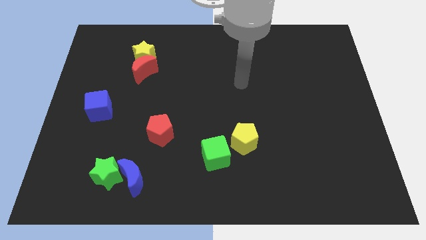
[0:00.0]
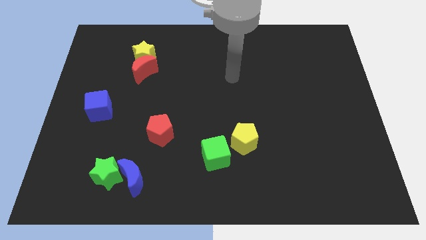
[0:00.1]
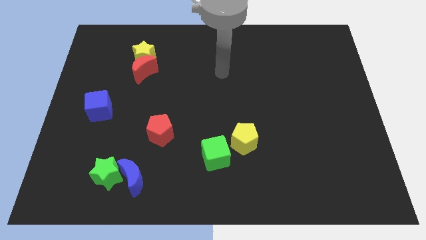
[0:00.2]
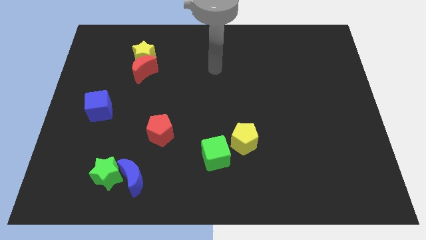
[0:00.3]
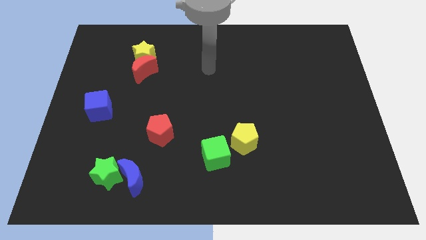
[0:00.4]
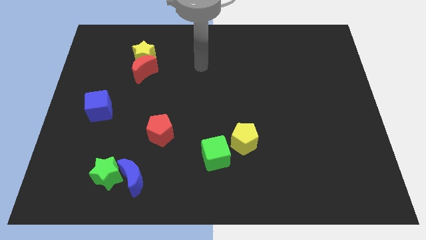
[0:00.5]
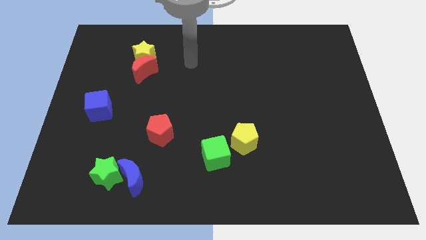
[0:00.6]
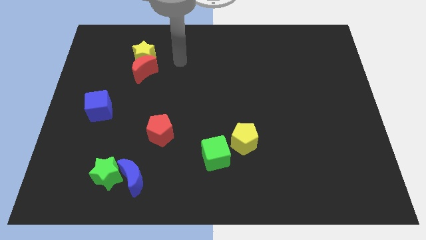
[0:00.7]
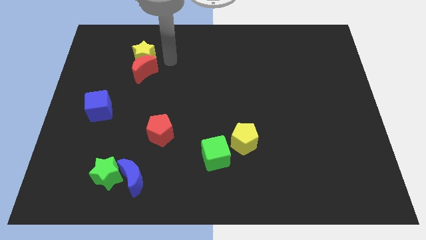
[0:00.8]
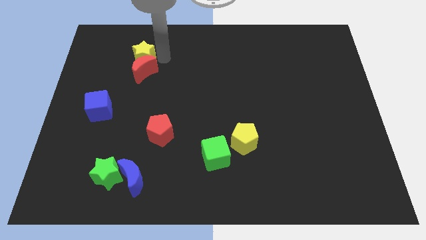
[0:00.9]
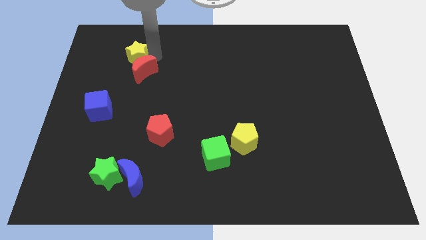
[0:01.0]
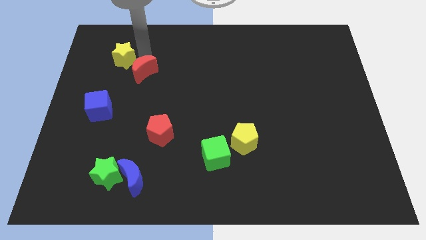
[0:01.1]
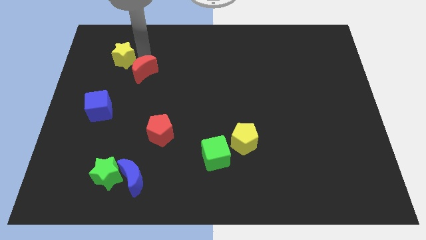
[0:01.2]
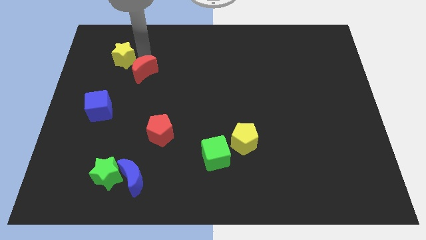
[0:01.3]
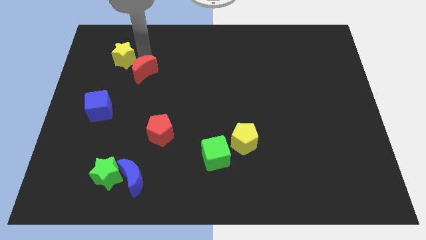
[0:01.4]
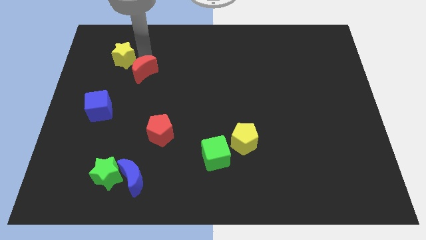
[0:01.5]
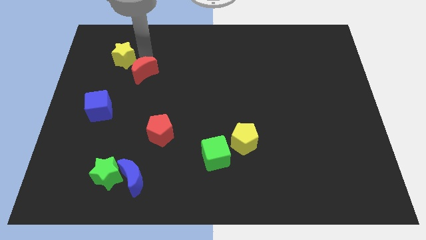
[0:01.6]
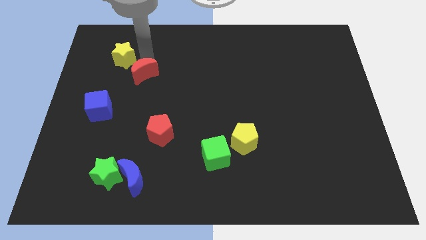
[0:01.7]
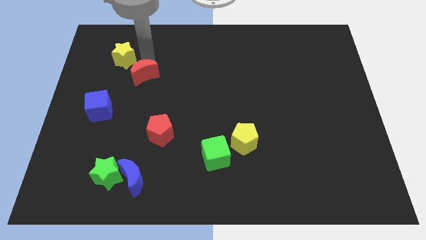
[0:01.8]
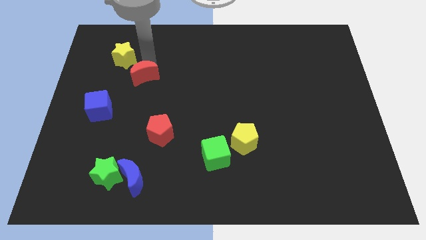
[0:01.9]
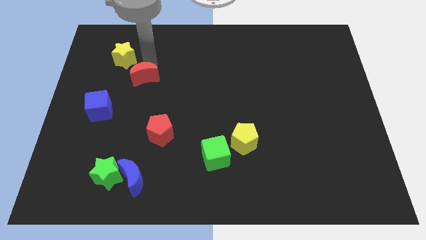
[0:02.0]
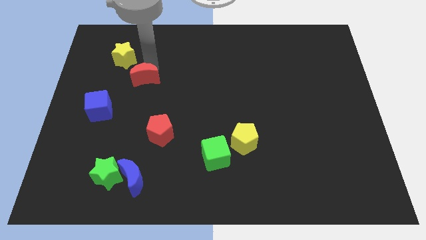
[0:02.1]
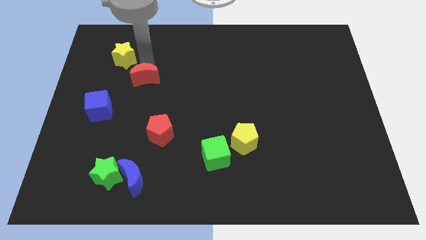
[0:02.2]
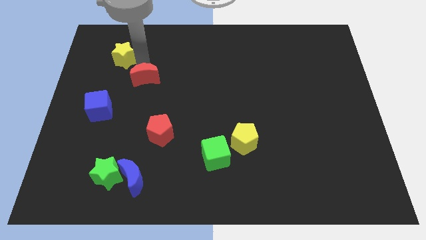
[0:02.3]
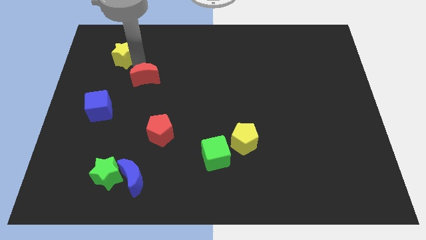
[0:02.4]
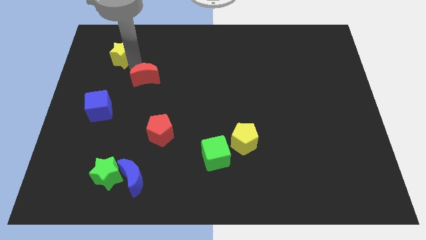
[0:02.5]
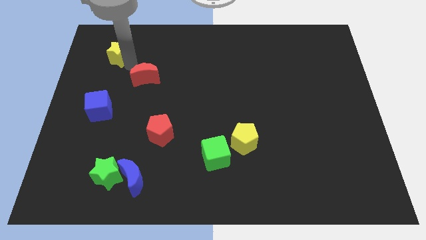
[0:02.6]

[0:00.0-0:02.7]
pull the red moon apart from the yellow star

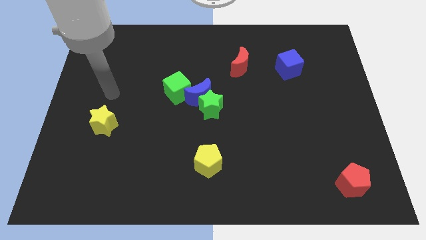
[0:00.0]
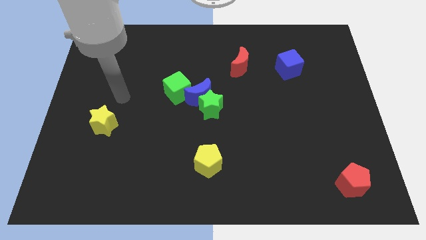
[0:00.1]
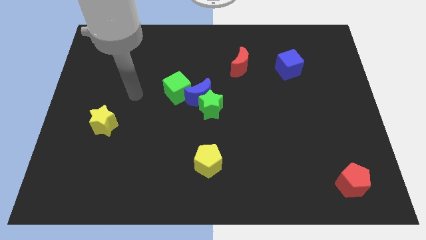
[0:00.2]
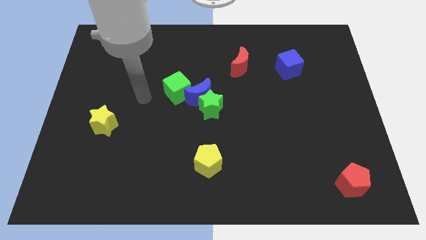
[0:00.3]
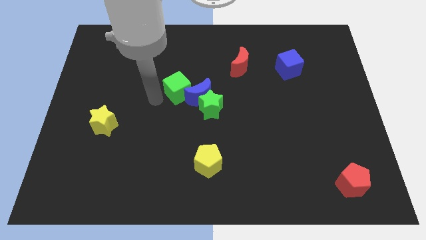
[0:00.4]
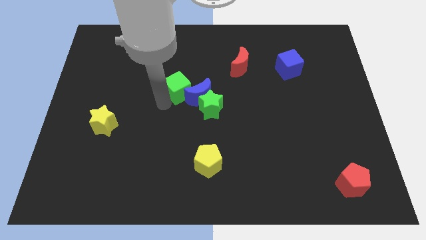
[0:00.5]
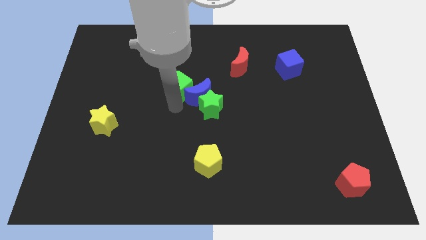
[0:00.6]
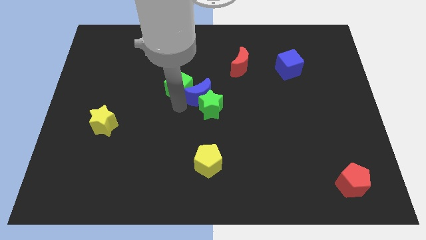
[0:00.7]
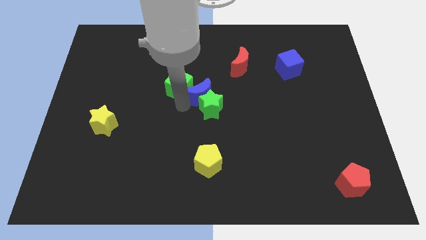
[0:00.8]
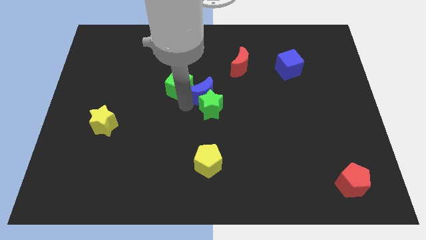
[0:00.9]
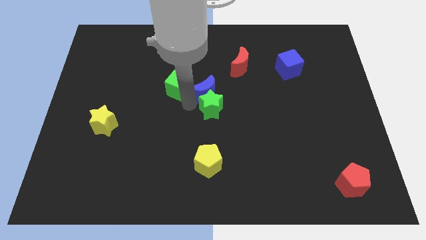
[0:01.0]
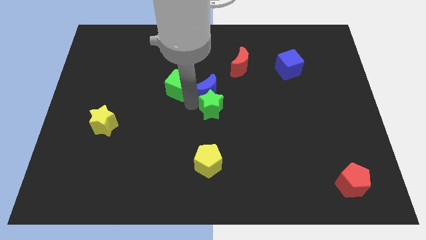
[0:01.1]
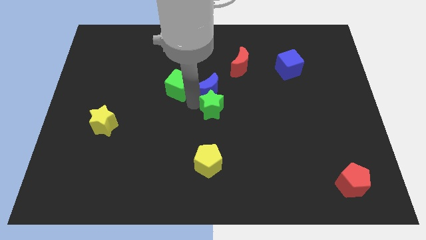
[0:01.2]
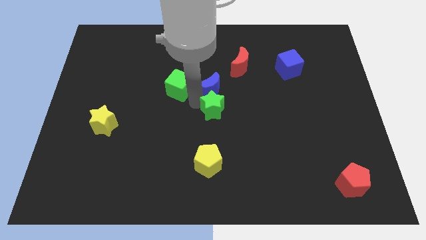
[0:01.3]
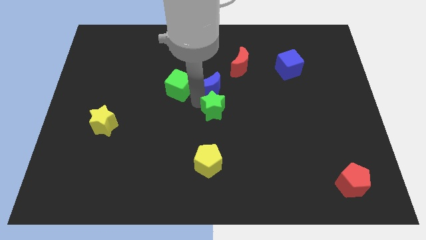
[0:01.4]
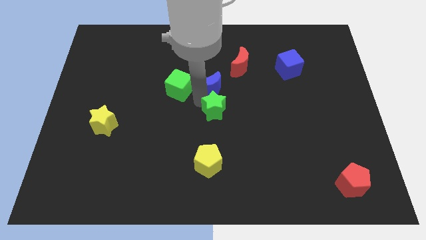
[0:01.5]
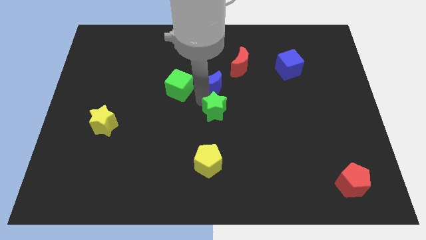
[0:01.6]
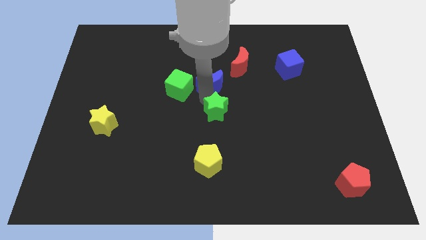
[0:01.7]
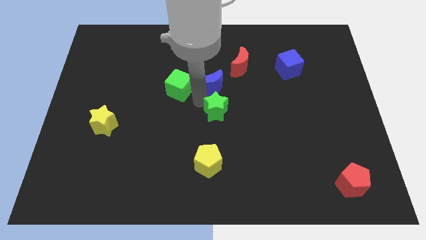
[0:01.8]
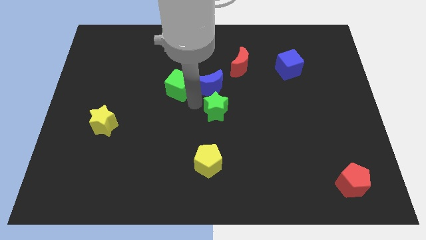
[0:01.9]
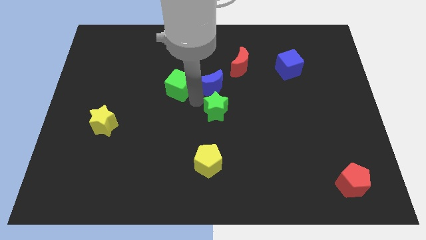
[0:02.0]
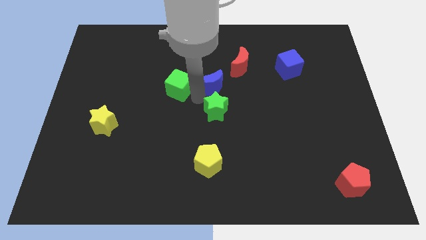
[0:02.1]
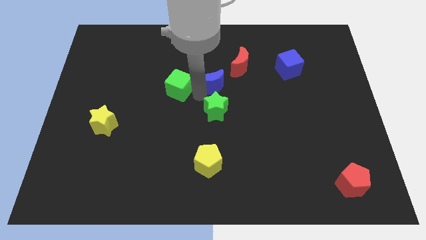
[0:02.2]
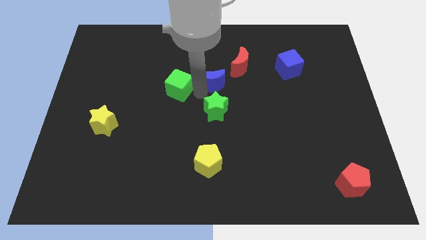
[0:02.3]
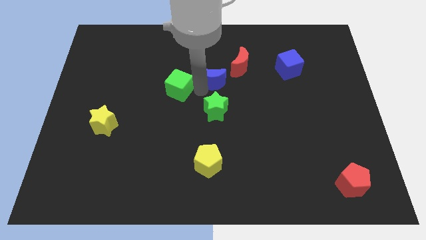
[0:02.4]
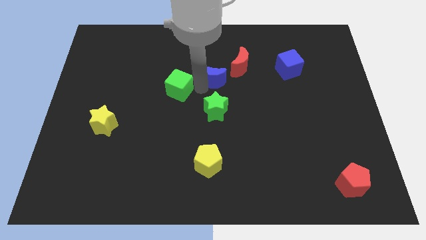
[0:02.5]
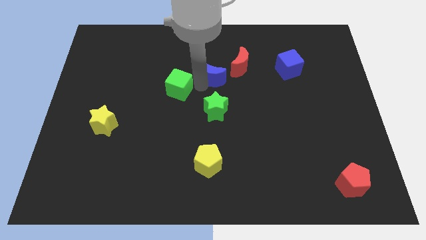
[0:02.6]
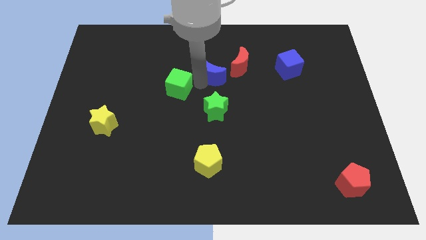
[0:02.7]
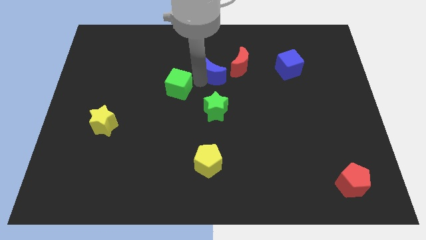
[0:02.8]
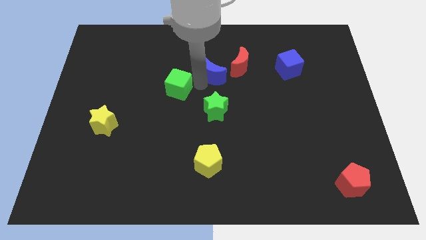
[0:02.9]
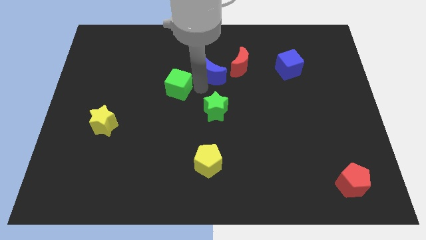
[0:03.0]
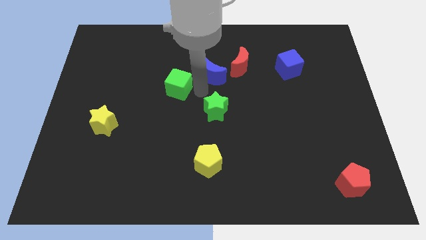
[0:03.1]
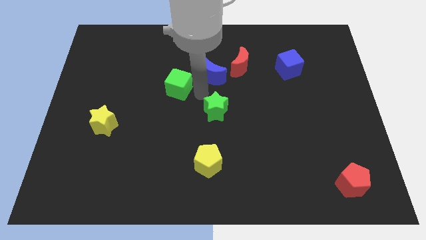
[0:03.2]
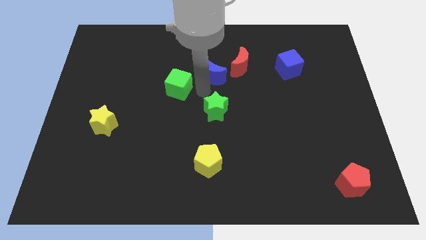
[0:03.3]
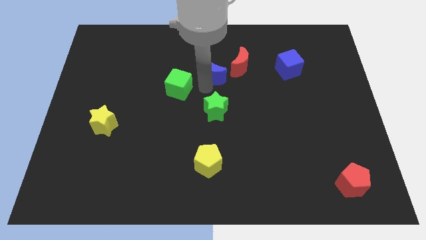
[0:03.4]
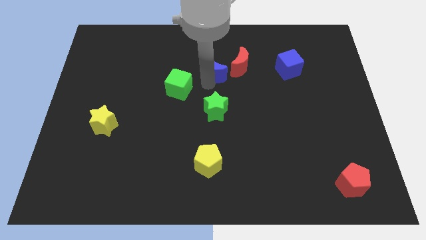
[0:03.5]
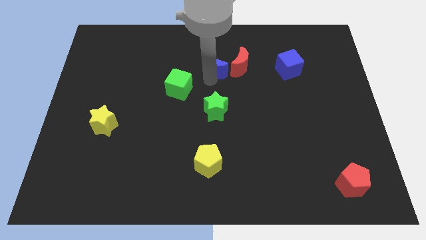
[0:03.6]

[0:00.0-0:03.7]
separate the blue moon from the green star and green cube

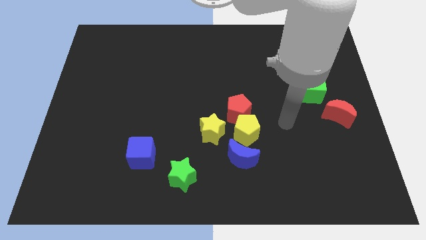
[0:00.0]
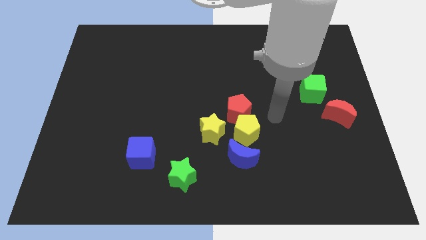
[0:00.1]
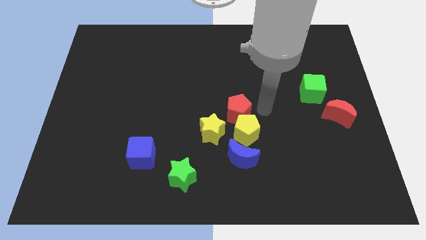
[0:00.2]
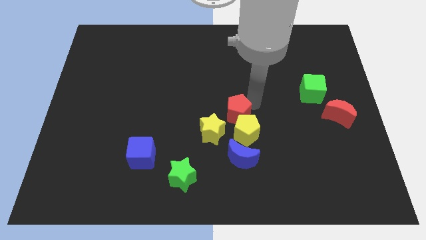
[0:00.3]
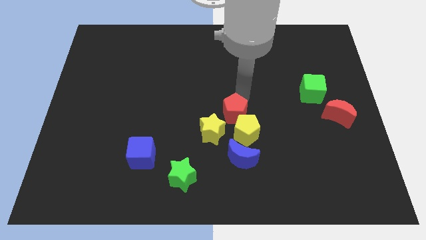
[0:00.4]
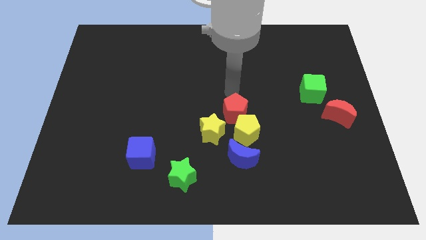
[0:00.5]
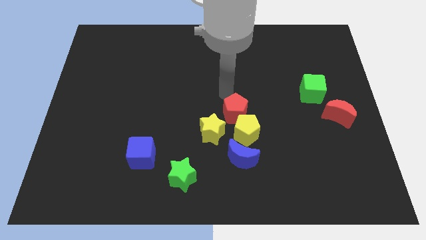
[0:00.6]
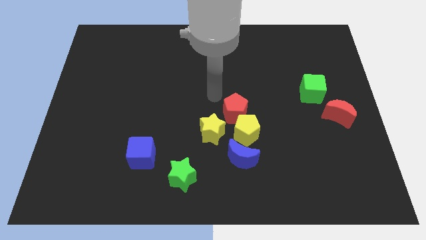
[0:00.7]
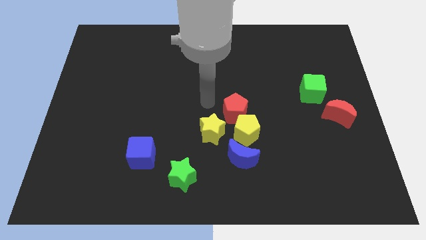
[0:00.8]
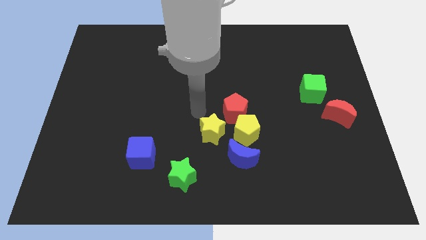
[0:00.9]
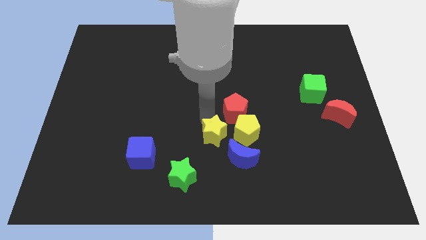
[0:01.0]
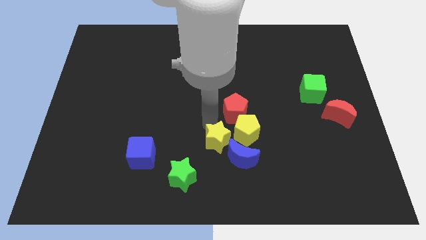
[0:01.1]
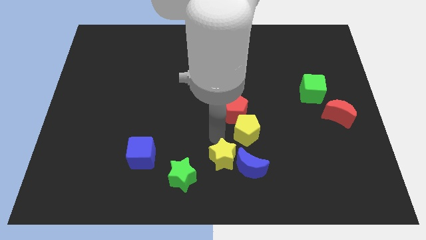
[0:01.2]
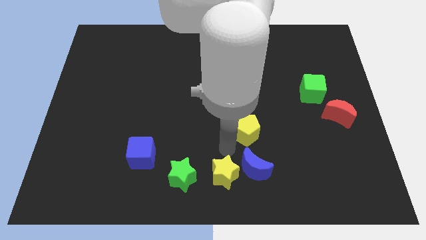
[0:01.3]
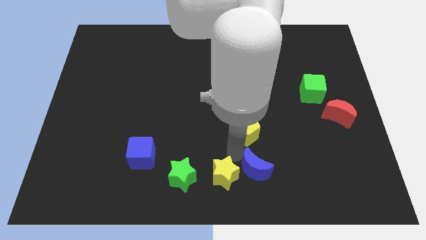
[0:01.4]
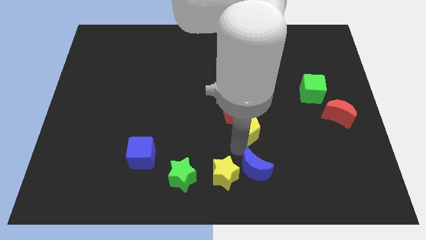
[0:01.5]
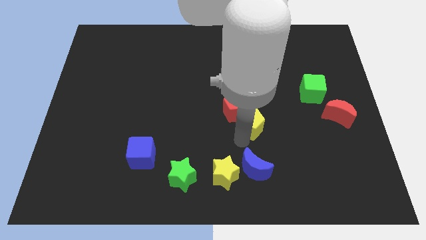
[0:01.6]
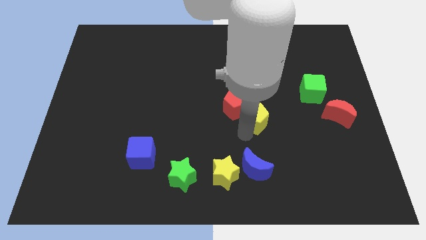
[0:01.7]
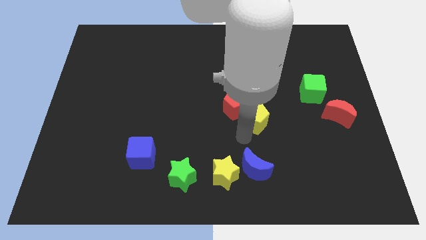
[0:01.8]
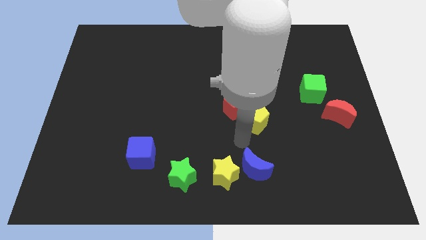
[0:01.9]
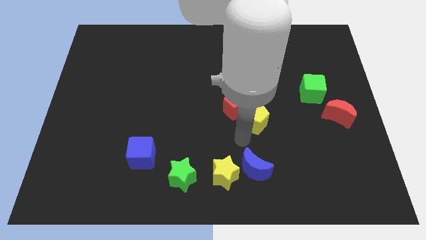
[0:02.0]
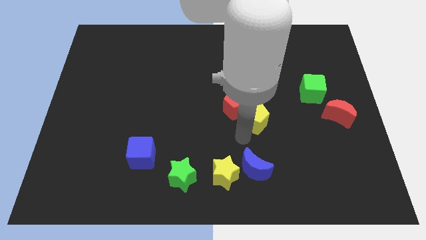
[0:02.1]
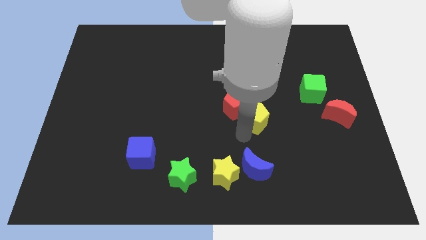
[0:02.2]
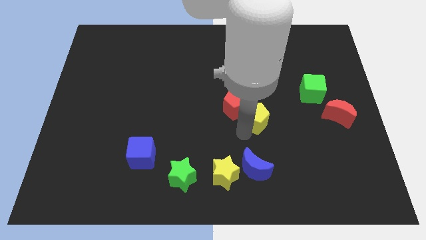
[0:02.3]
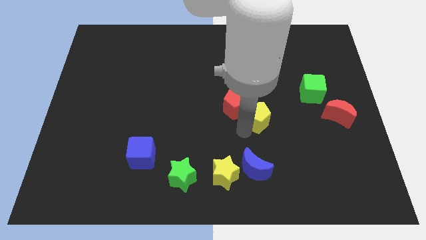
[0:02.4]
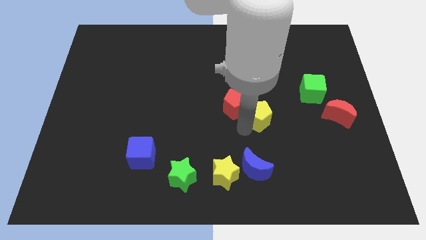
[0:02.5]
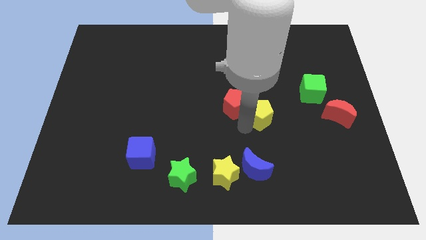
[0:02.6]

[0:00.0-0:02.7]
pull the yellow pentagon apart from the group of blocks

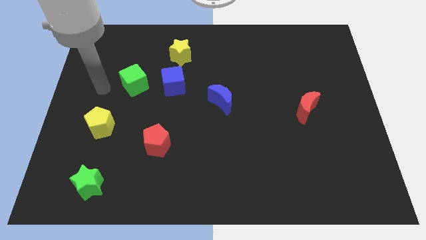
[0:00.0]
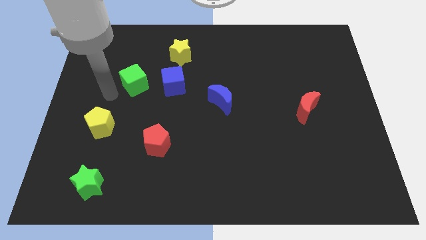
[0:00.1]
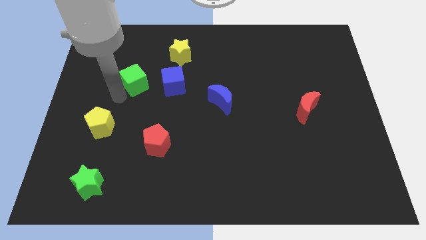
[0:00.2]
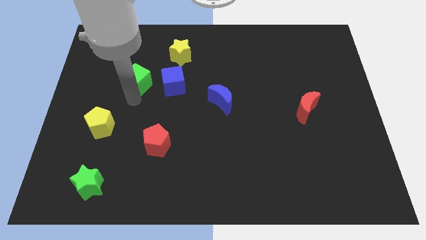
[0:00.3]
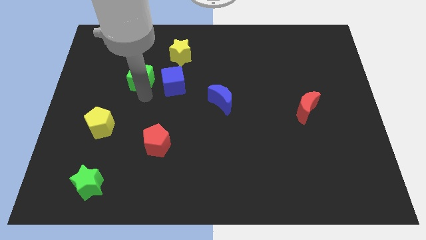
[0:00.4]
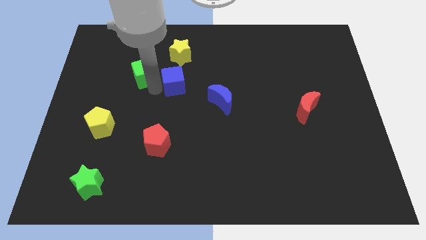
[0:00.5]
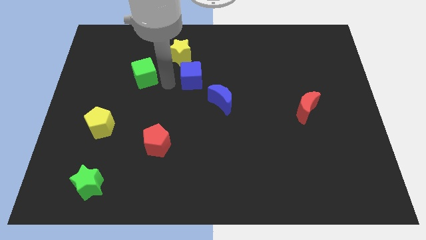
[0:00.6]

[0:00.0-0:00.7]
separate the green cube from the blue cube
